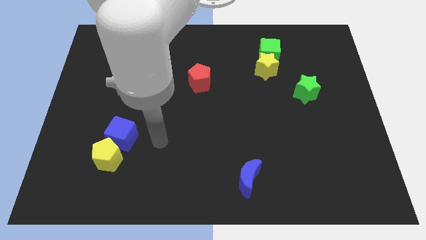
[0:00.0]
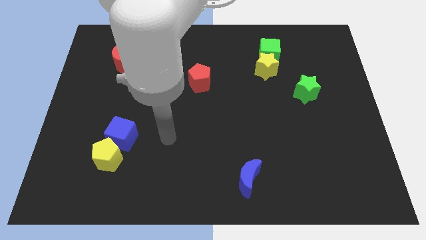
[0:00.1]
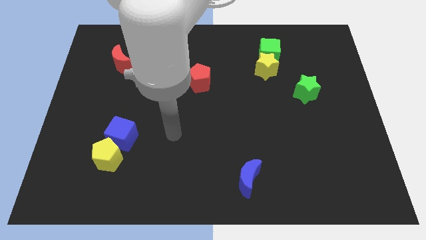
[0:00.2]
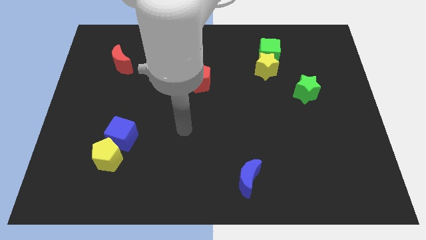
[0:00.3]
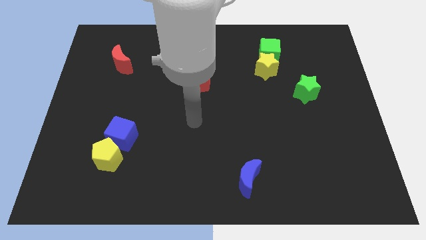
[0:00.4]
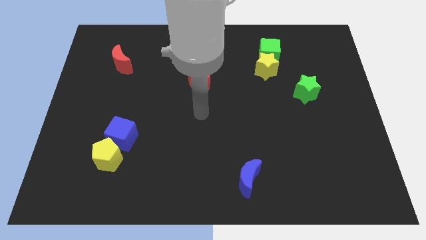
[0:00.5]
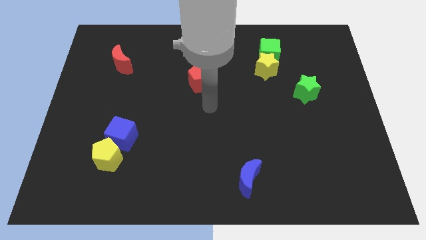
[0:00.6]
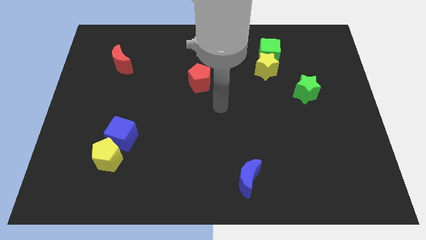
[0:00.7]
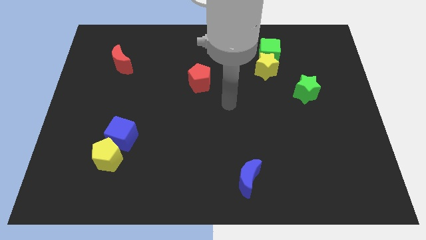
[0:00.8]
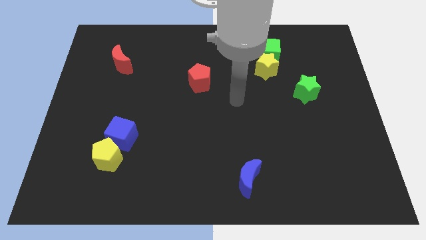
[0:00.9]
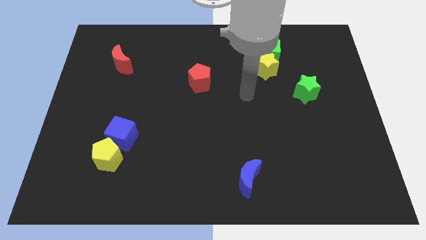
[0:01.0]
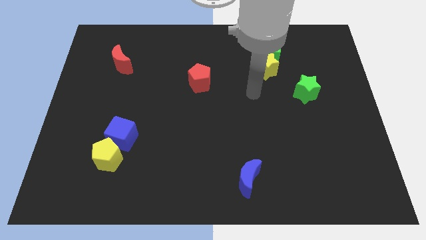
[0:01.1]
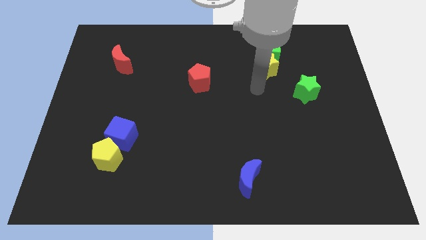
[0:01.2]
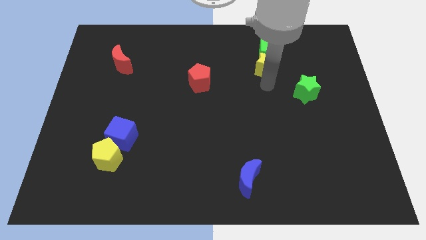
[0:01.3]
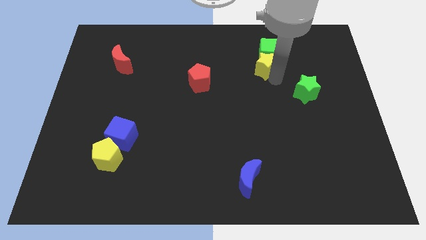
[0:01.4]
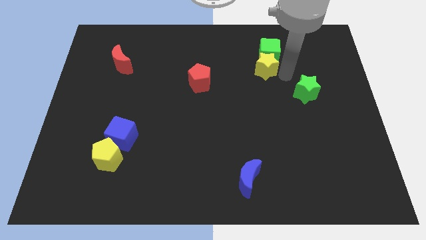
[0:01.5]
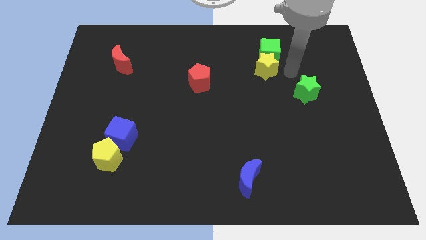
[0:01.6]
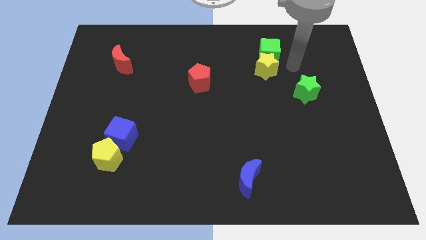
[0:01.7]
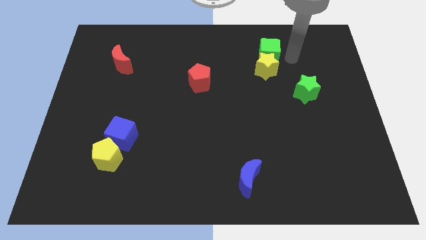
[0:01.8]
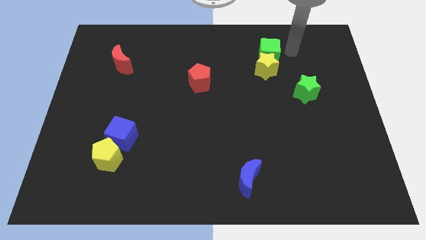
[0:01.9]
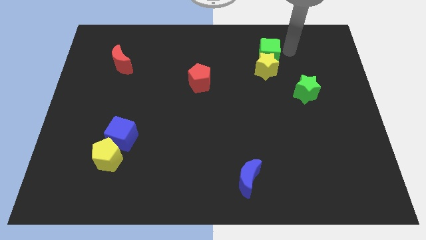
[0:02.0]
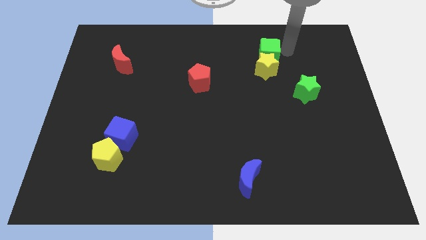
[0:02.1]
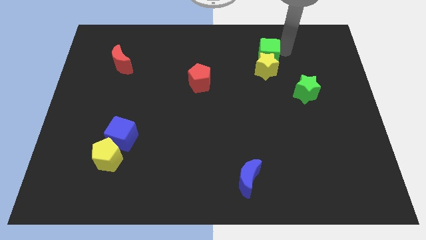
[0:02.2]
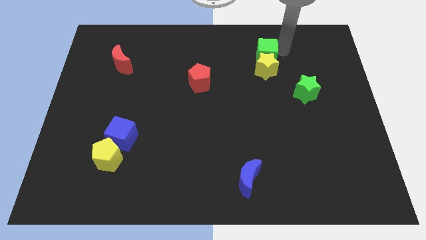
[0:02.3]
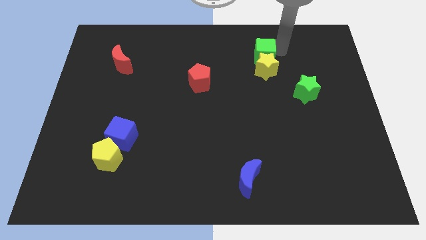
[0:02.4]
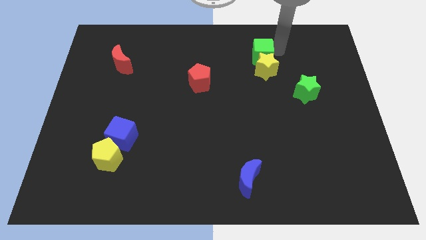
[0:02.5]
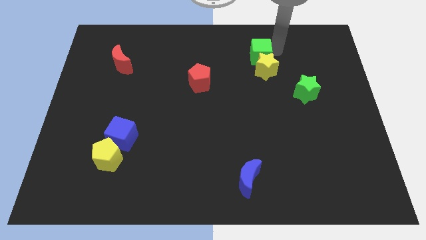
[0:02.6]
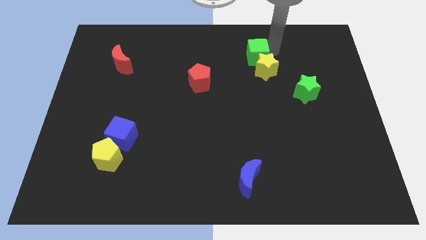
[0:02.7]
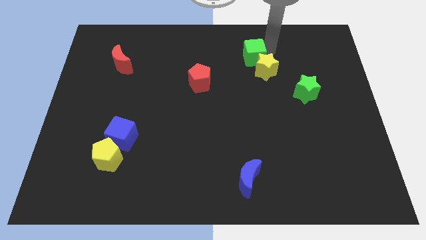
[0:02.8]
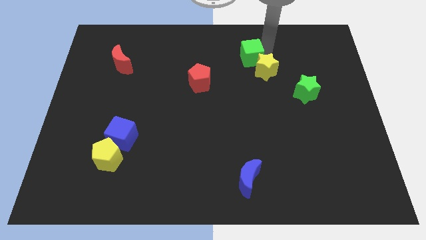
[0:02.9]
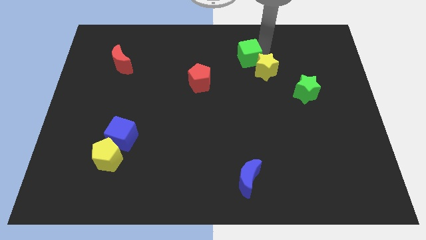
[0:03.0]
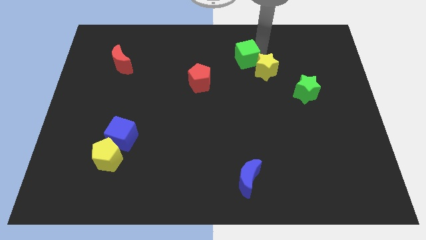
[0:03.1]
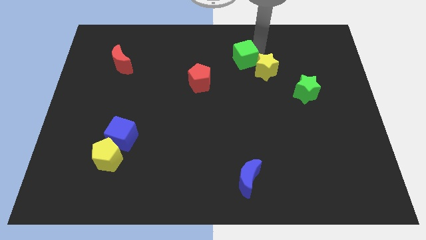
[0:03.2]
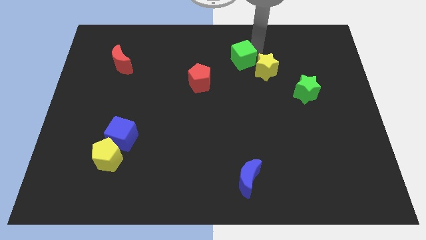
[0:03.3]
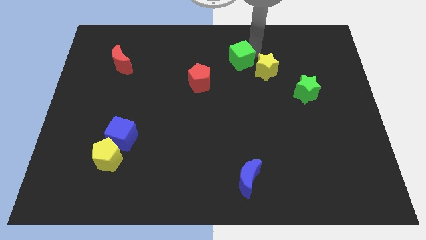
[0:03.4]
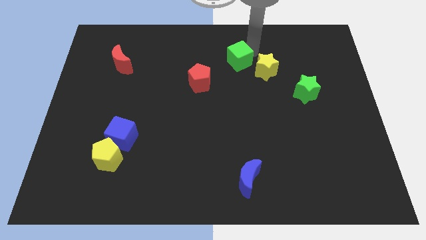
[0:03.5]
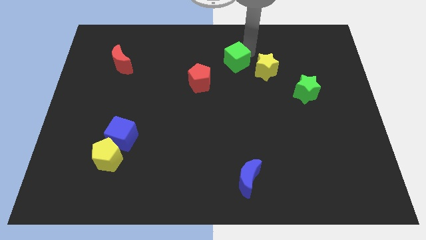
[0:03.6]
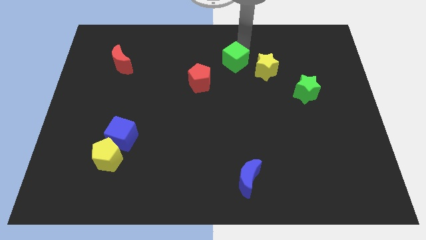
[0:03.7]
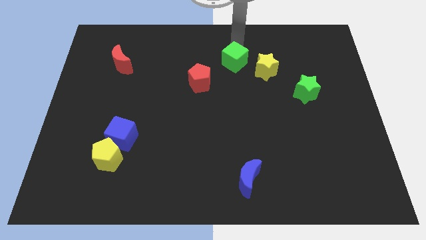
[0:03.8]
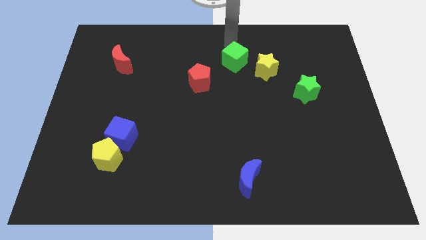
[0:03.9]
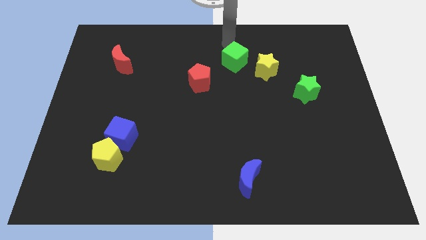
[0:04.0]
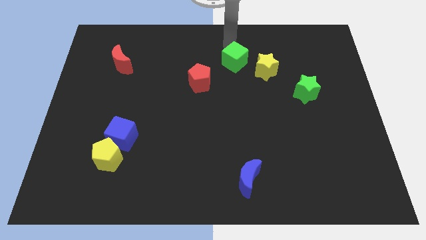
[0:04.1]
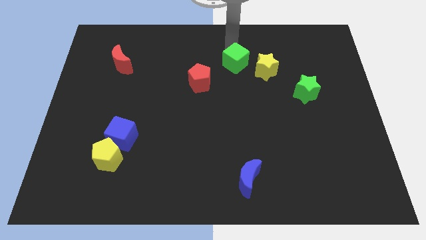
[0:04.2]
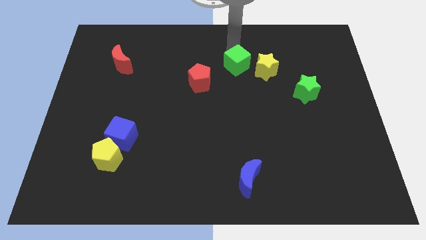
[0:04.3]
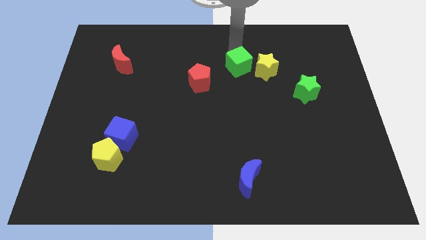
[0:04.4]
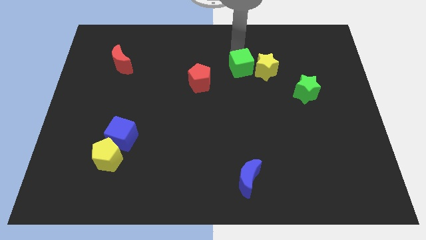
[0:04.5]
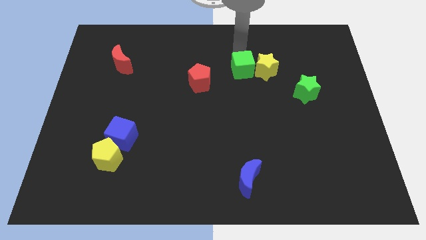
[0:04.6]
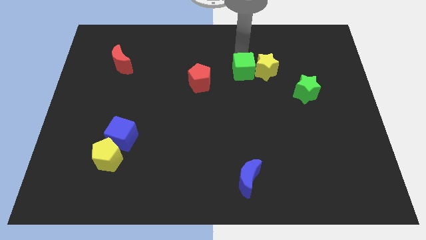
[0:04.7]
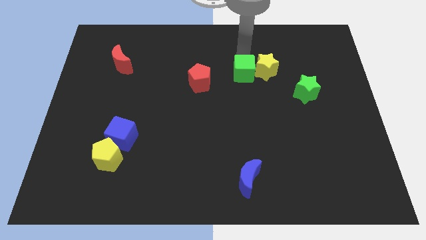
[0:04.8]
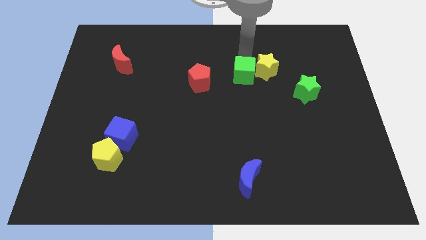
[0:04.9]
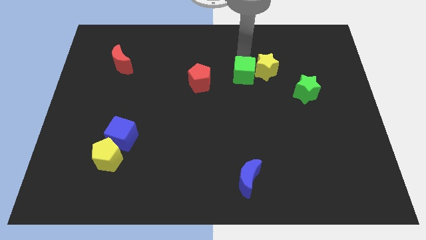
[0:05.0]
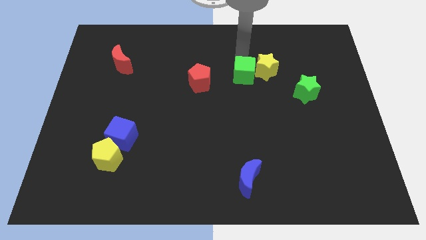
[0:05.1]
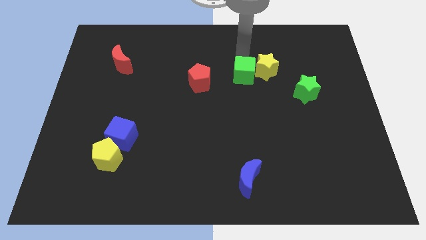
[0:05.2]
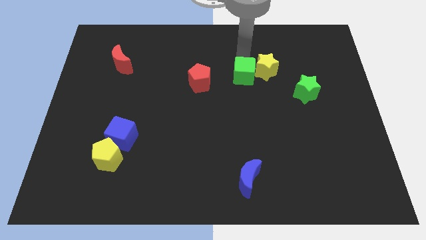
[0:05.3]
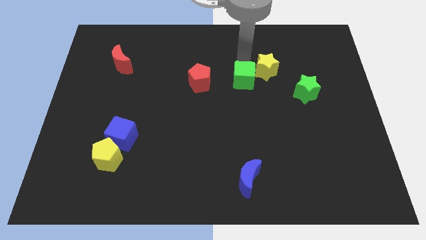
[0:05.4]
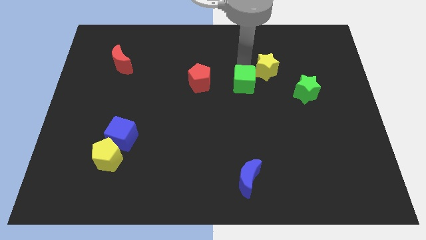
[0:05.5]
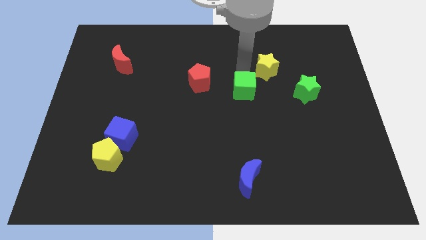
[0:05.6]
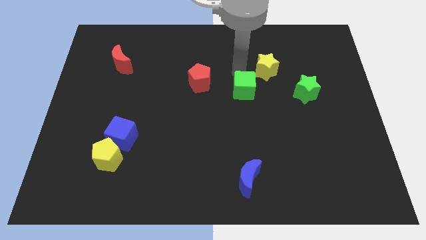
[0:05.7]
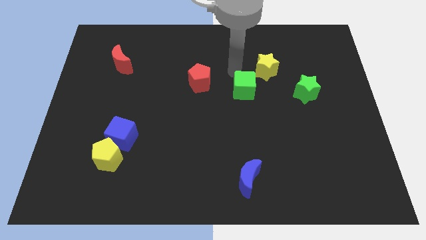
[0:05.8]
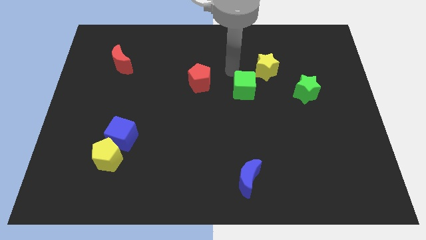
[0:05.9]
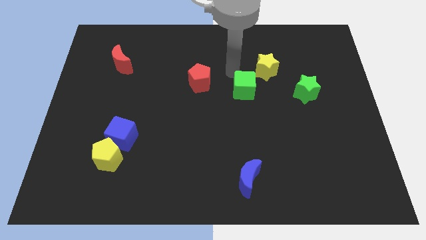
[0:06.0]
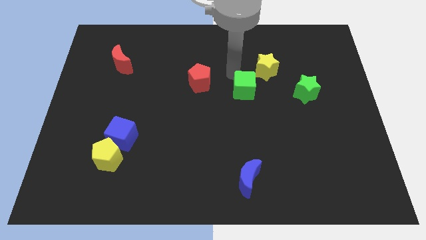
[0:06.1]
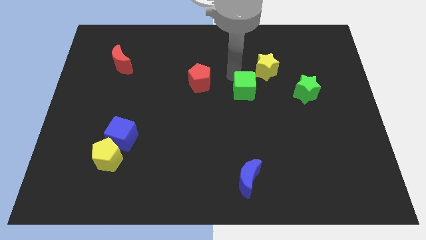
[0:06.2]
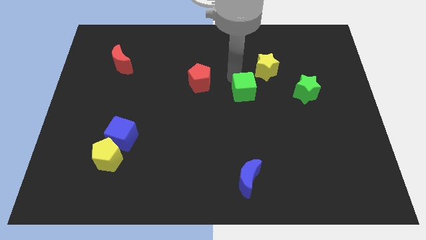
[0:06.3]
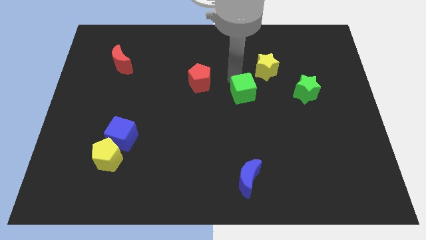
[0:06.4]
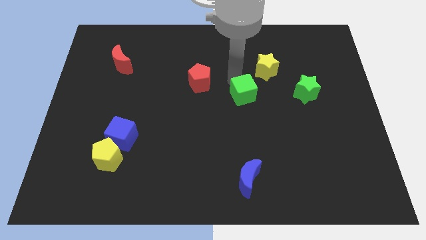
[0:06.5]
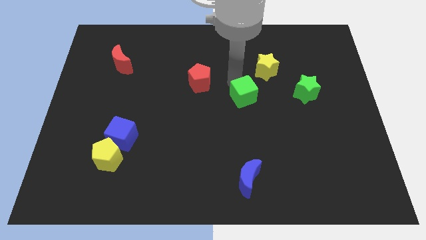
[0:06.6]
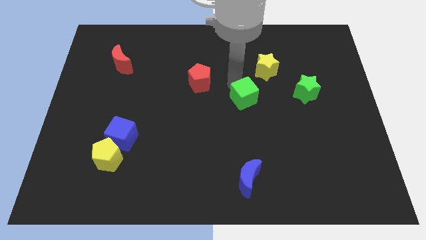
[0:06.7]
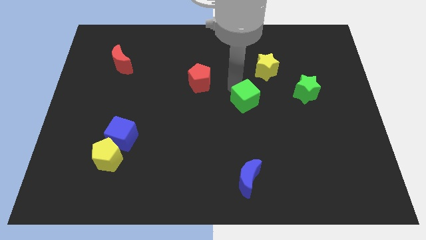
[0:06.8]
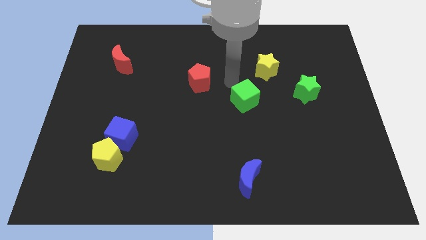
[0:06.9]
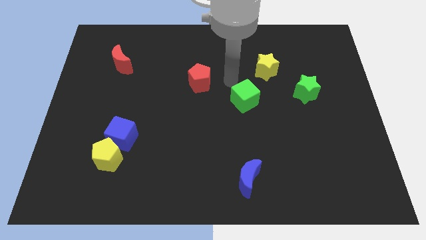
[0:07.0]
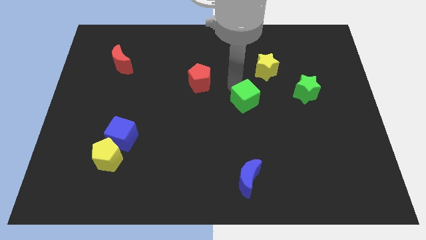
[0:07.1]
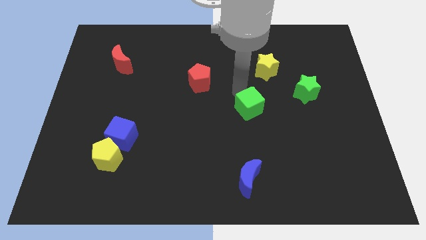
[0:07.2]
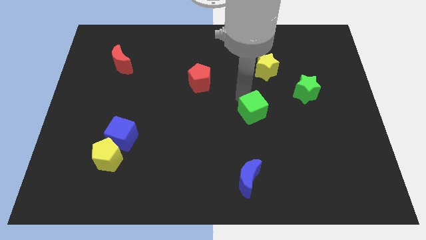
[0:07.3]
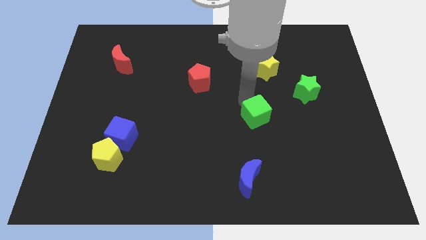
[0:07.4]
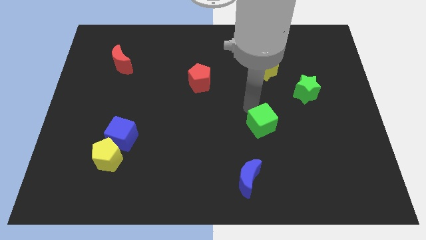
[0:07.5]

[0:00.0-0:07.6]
push the green cube downwards

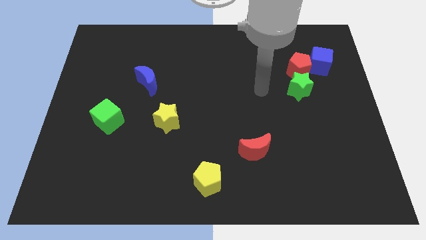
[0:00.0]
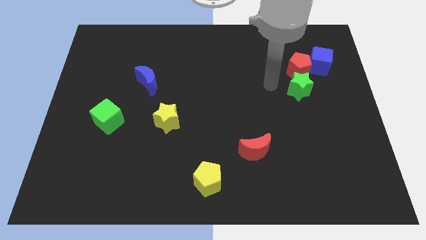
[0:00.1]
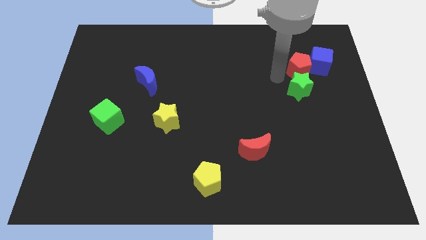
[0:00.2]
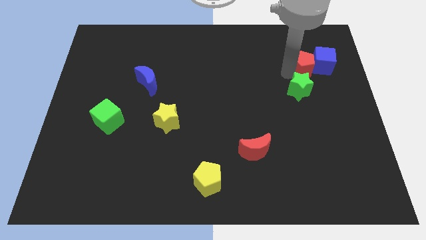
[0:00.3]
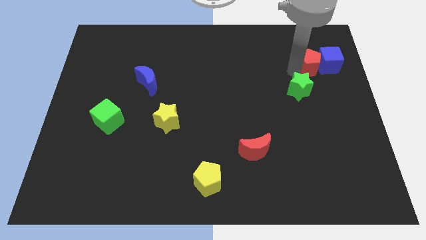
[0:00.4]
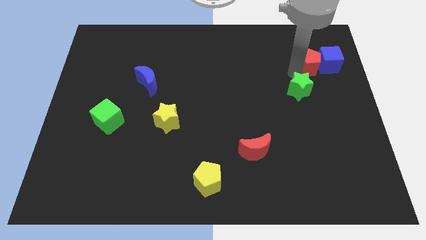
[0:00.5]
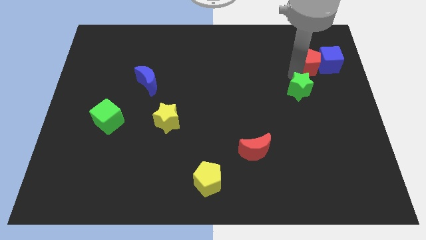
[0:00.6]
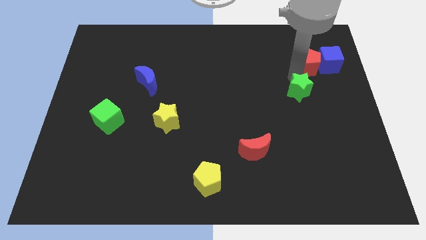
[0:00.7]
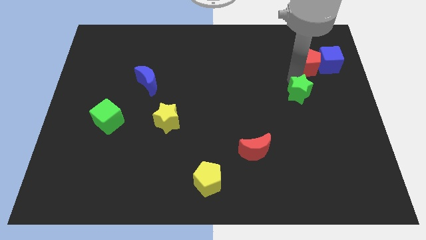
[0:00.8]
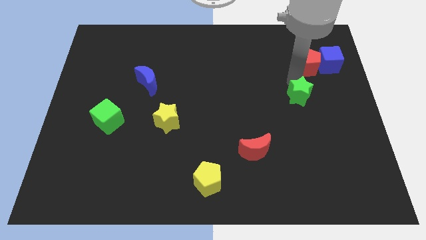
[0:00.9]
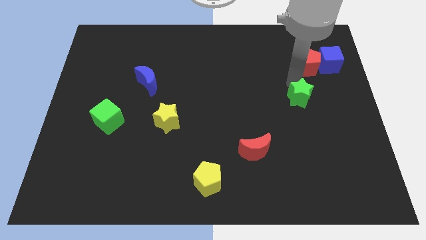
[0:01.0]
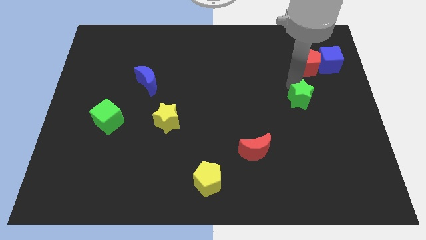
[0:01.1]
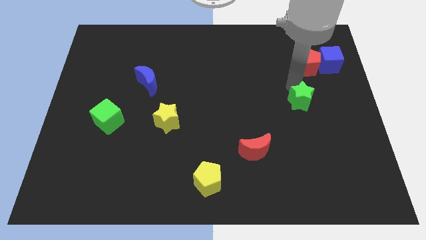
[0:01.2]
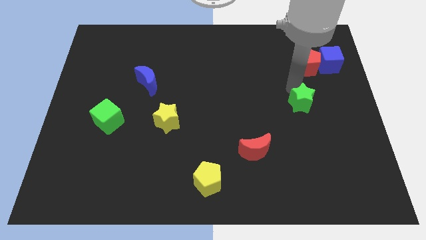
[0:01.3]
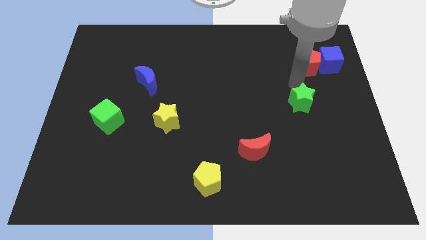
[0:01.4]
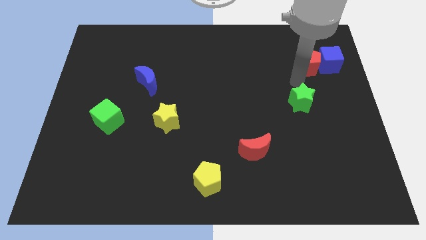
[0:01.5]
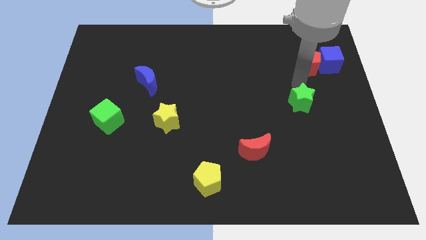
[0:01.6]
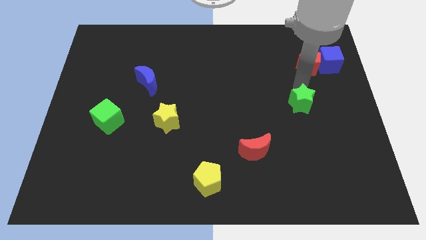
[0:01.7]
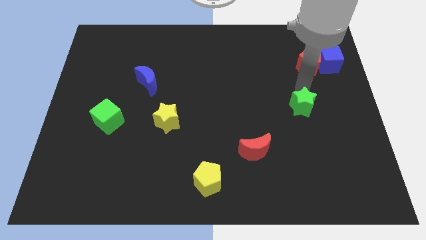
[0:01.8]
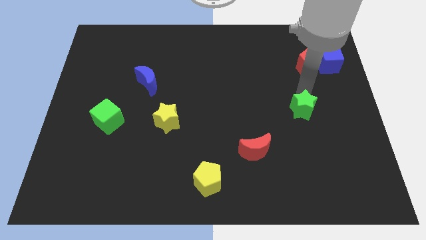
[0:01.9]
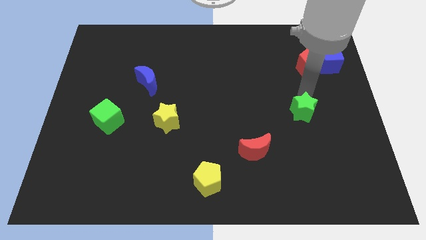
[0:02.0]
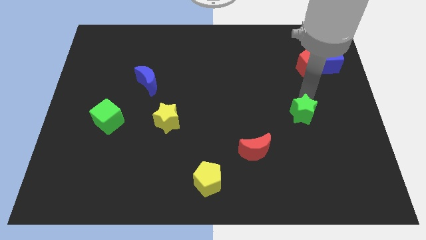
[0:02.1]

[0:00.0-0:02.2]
slide the green star a little bit downwards
